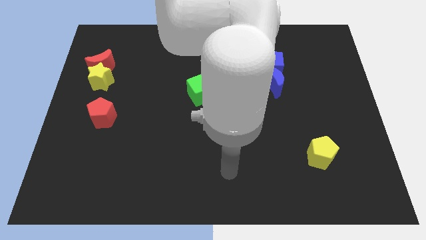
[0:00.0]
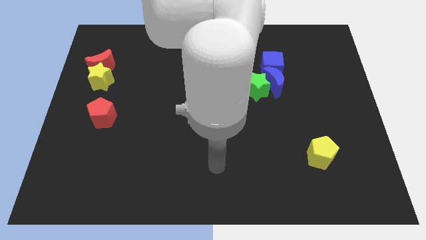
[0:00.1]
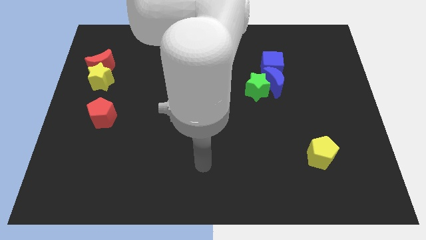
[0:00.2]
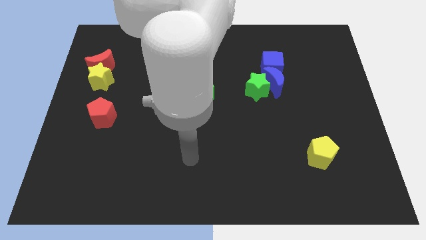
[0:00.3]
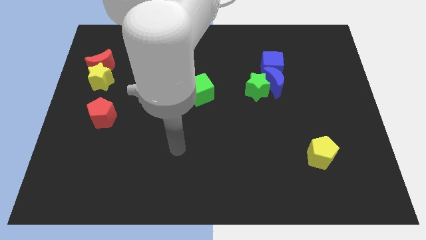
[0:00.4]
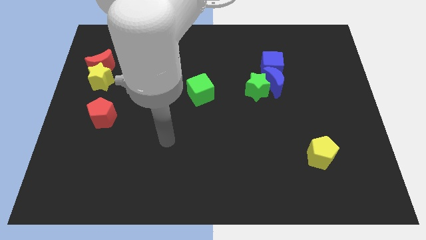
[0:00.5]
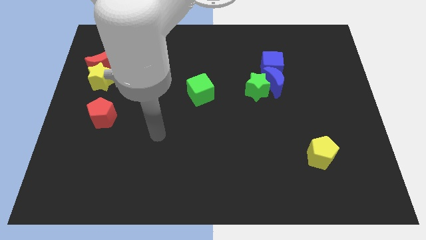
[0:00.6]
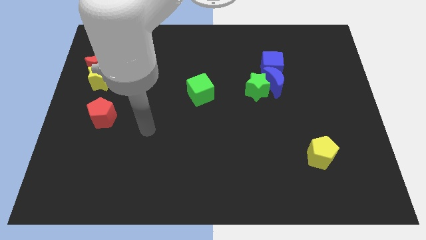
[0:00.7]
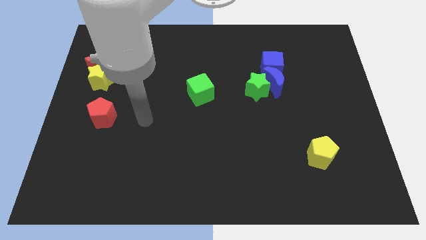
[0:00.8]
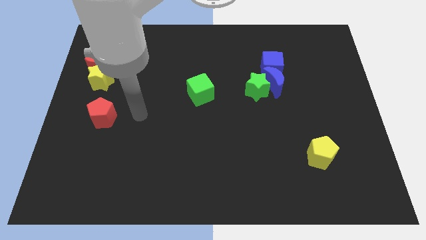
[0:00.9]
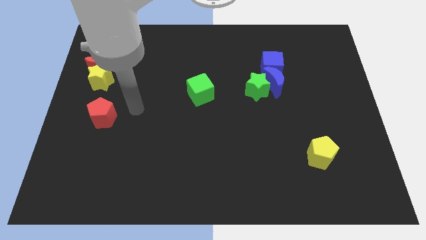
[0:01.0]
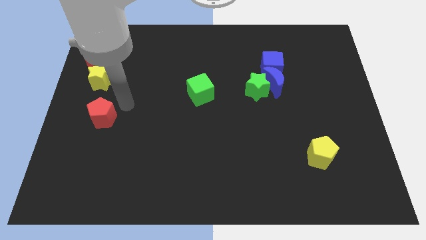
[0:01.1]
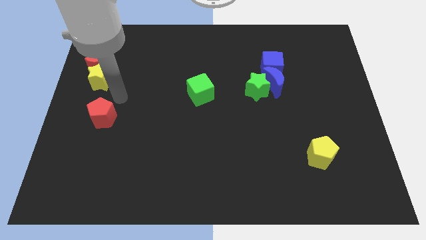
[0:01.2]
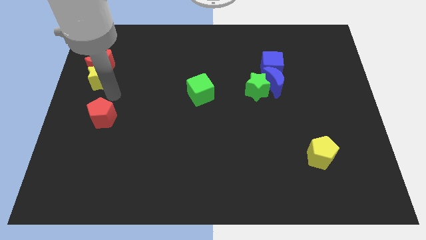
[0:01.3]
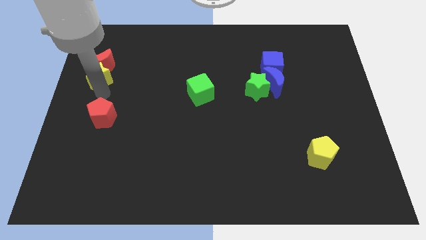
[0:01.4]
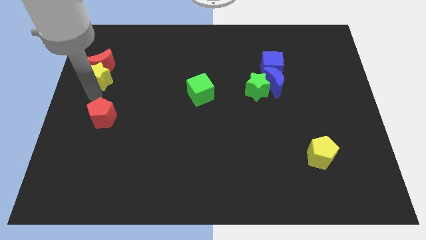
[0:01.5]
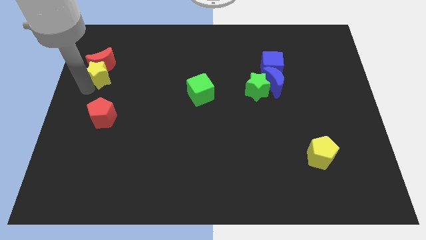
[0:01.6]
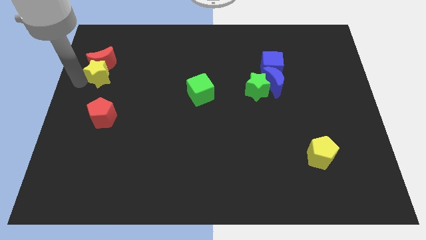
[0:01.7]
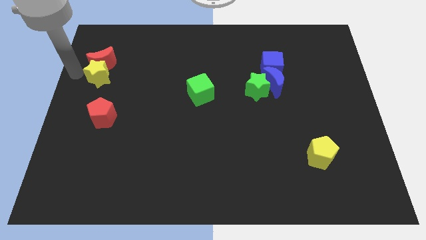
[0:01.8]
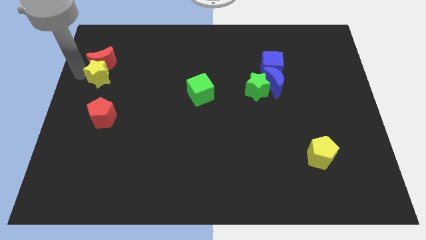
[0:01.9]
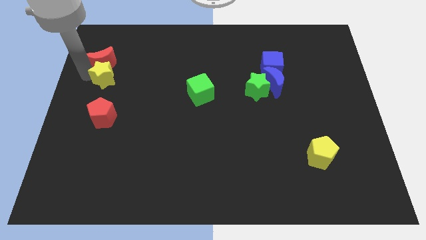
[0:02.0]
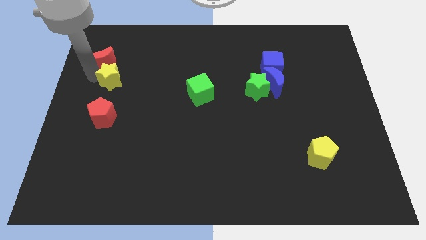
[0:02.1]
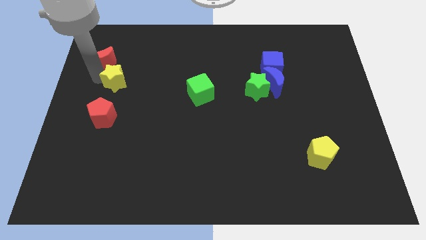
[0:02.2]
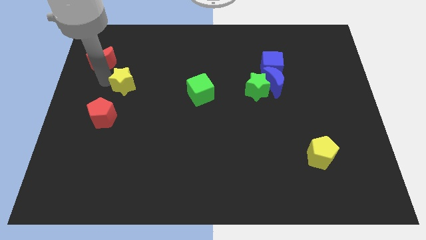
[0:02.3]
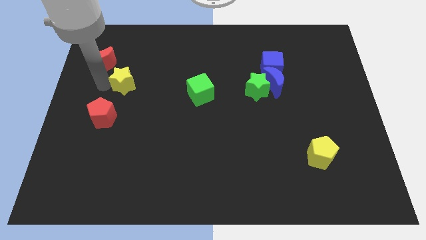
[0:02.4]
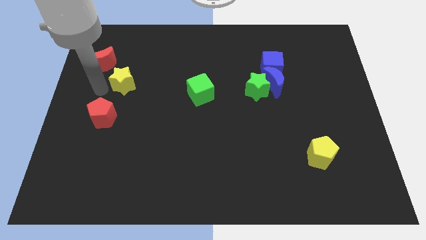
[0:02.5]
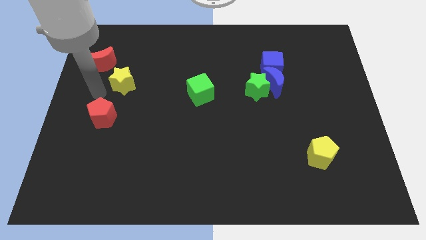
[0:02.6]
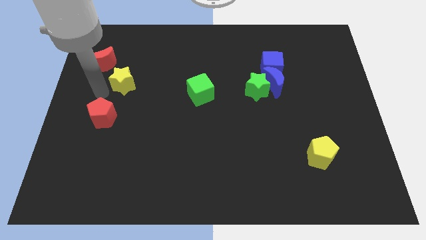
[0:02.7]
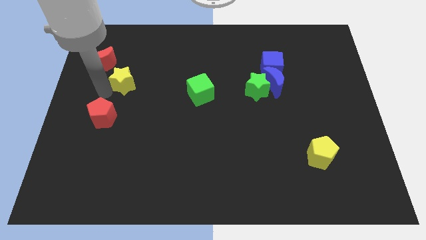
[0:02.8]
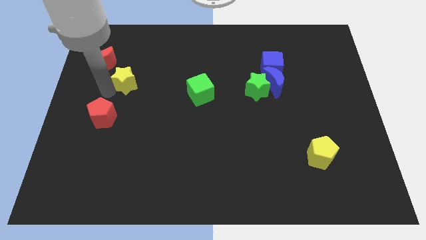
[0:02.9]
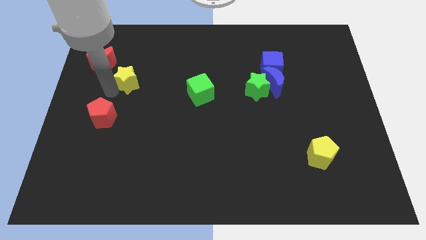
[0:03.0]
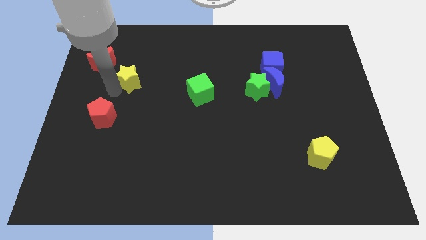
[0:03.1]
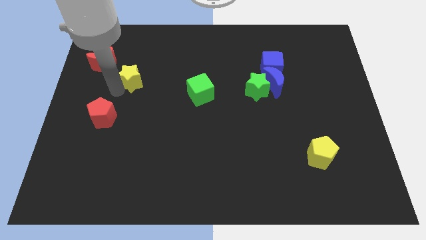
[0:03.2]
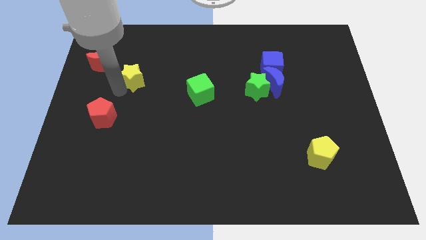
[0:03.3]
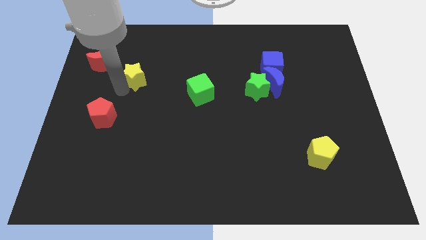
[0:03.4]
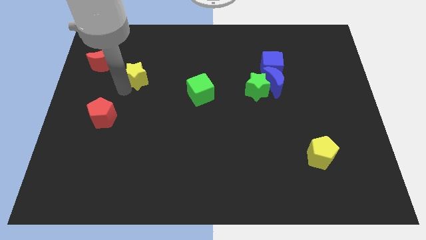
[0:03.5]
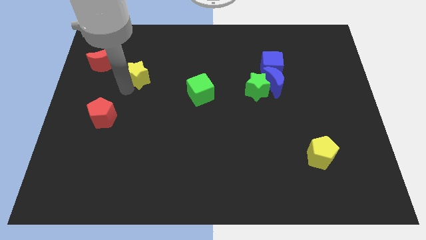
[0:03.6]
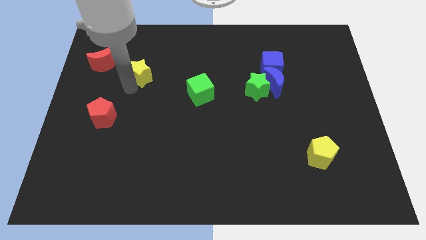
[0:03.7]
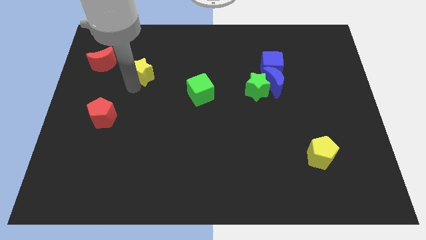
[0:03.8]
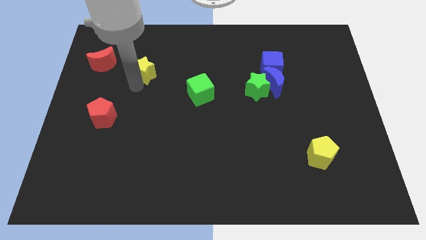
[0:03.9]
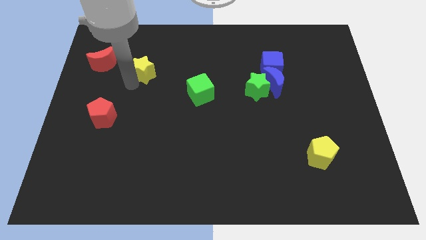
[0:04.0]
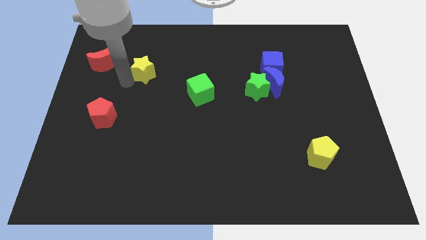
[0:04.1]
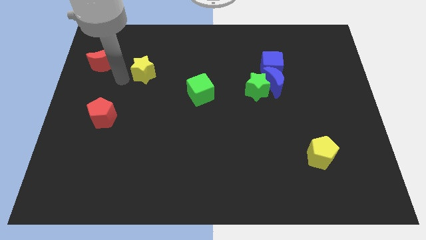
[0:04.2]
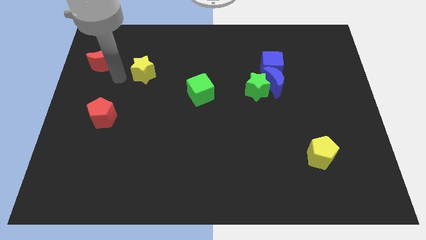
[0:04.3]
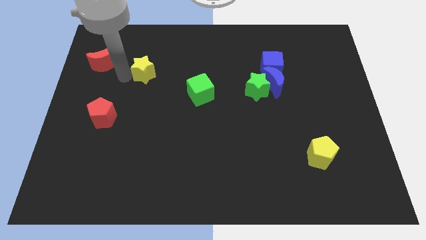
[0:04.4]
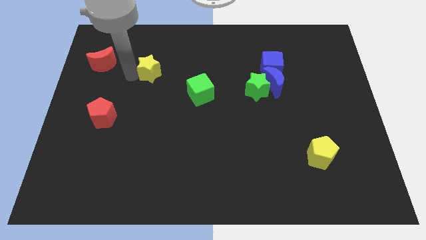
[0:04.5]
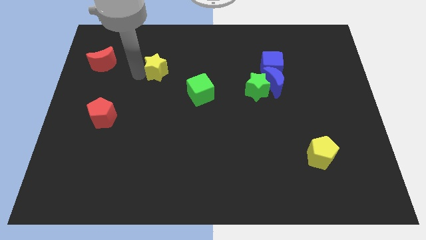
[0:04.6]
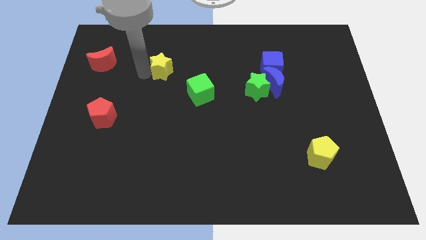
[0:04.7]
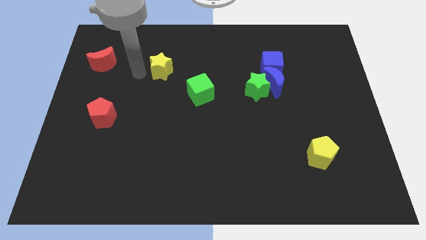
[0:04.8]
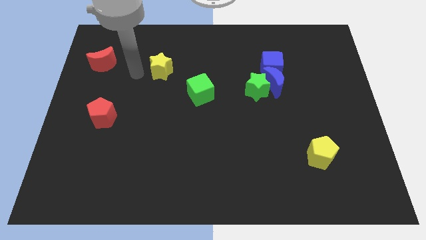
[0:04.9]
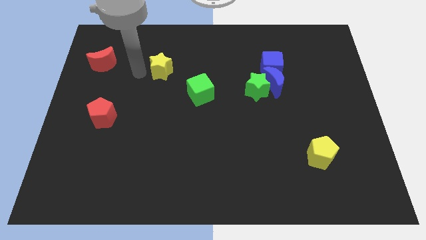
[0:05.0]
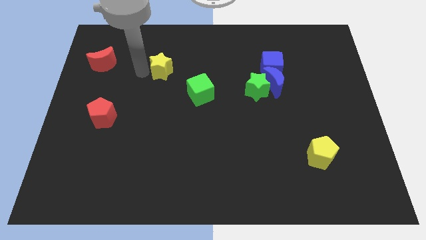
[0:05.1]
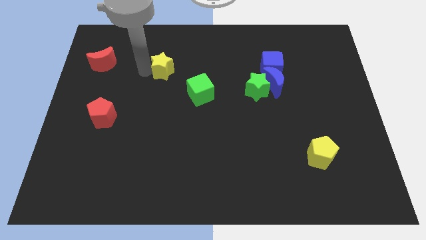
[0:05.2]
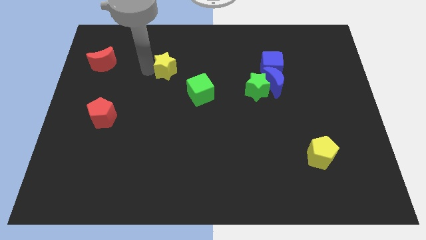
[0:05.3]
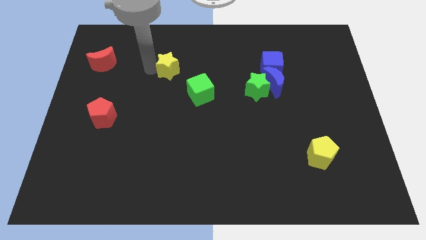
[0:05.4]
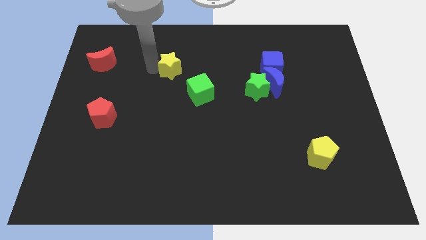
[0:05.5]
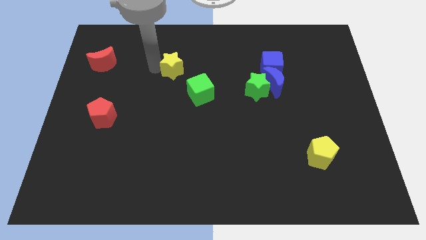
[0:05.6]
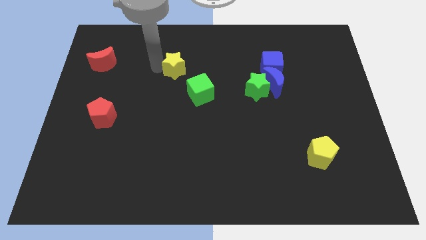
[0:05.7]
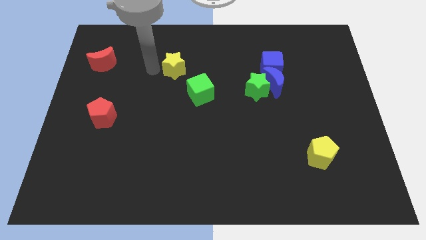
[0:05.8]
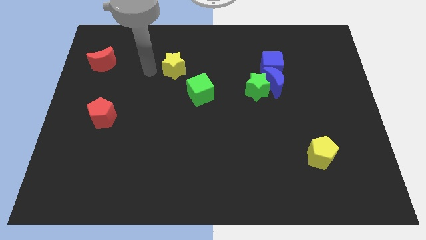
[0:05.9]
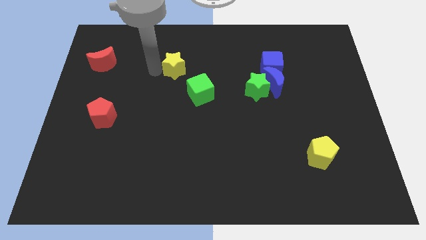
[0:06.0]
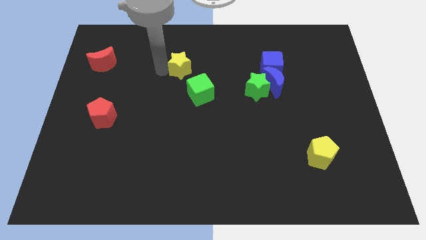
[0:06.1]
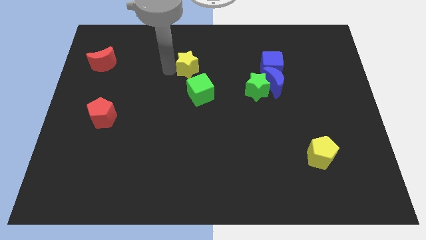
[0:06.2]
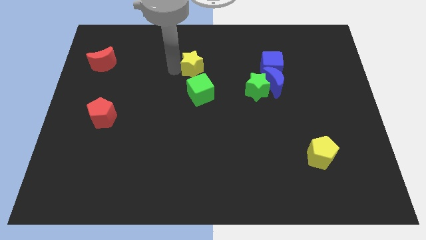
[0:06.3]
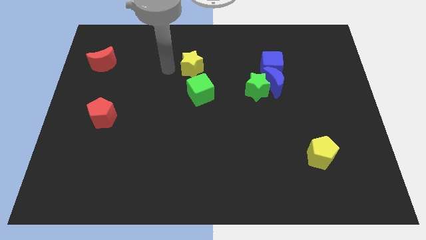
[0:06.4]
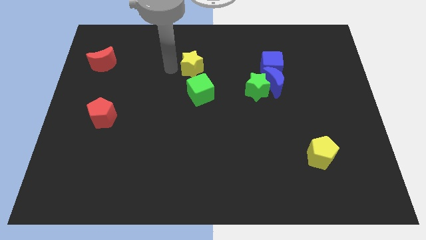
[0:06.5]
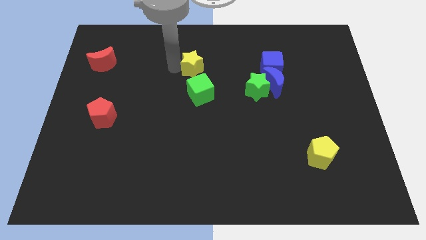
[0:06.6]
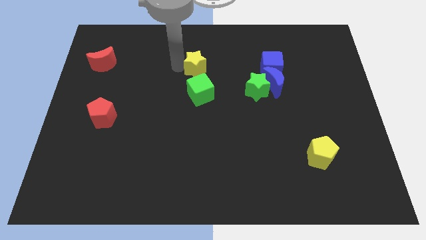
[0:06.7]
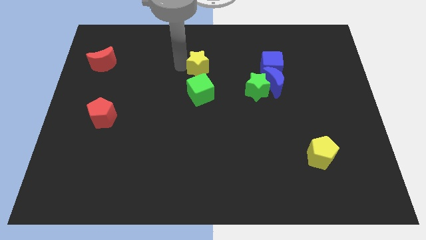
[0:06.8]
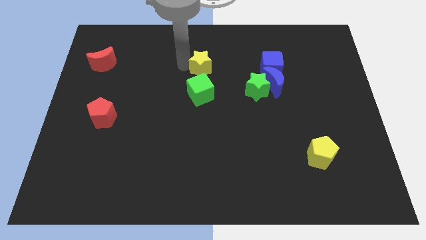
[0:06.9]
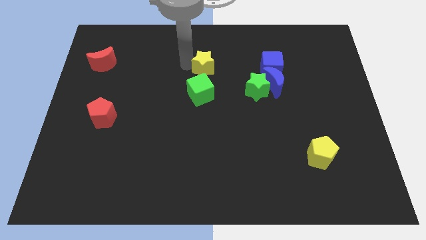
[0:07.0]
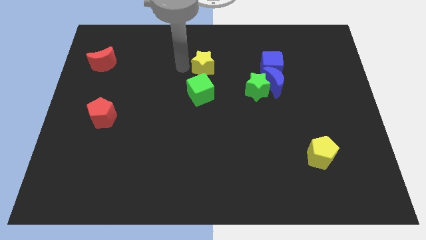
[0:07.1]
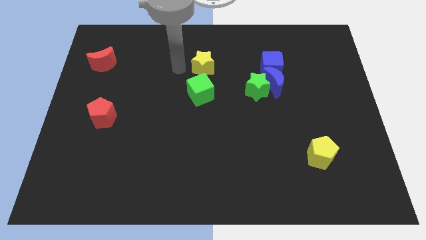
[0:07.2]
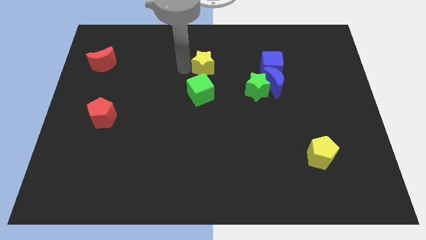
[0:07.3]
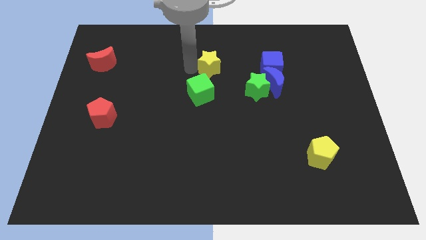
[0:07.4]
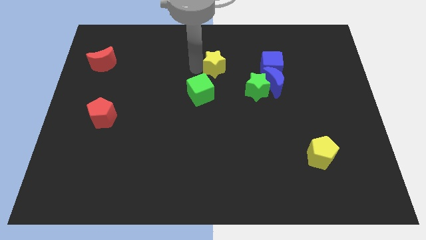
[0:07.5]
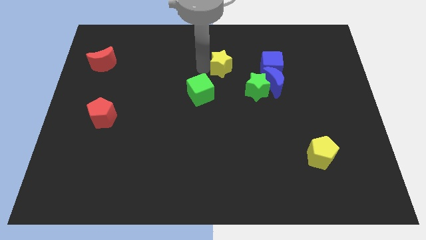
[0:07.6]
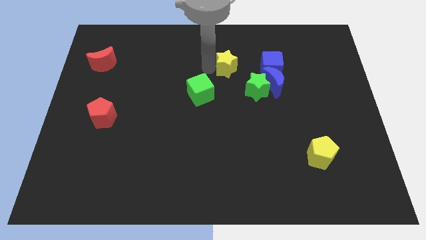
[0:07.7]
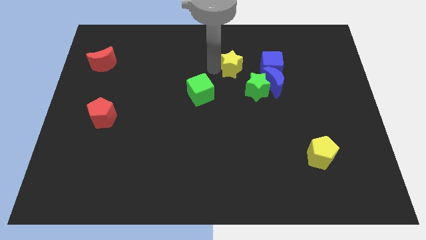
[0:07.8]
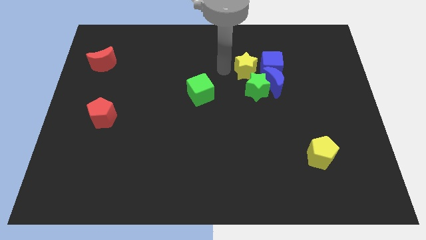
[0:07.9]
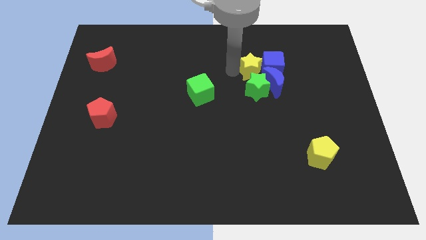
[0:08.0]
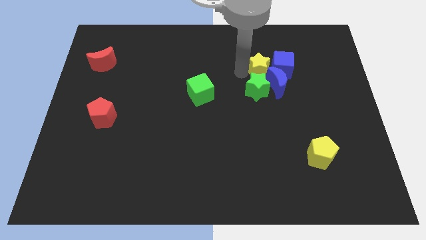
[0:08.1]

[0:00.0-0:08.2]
slide the yellow star to the top of the blue moon
